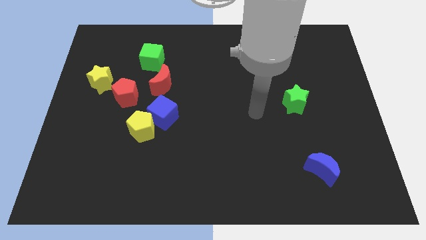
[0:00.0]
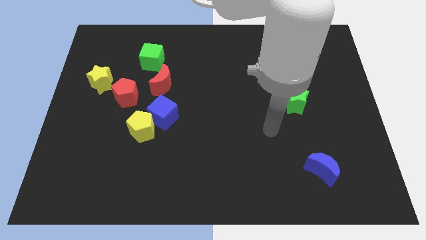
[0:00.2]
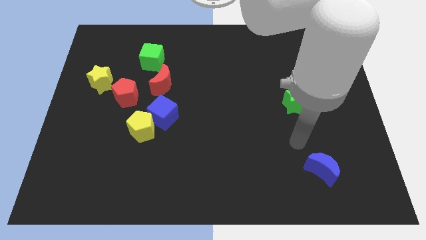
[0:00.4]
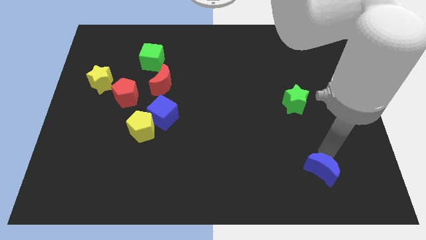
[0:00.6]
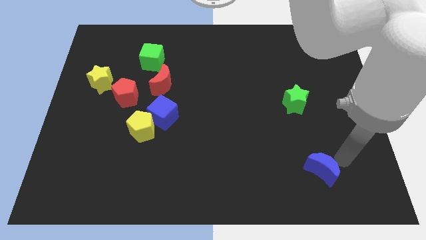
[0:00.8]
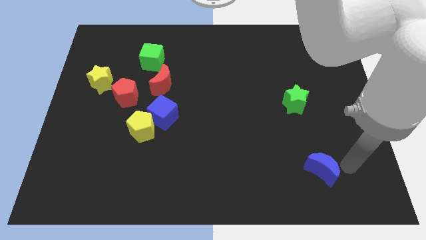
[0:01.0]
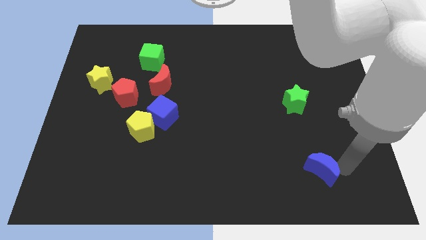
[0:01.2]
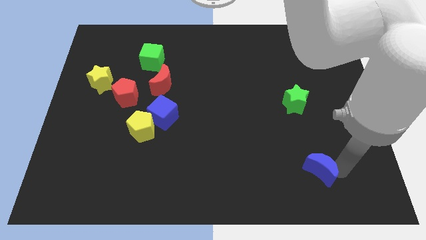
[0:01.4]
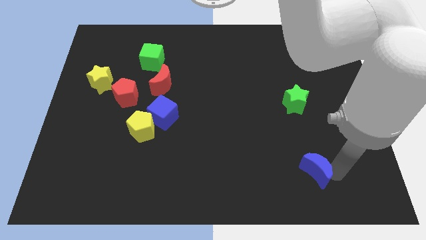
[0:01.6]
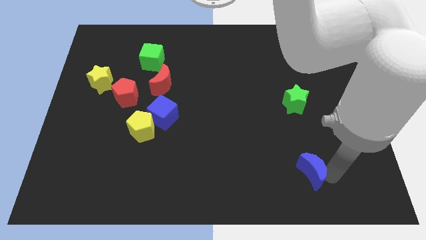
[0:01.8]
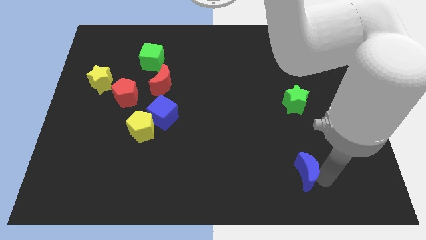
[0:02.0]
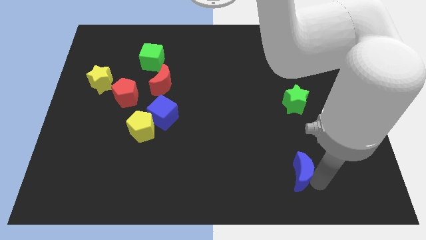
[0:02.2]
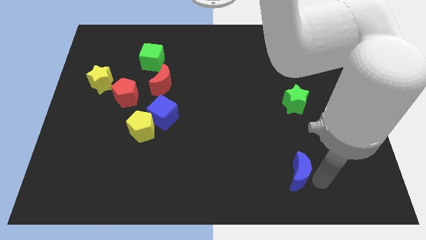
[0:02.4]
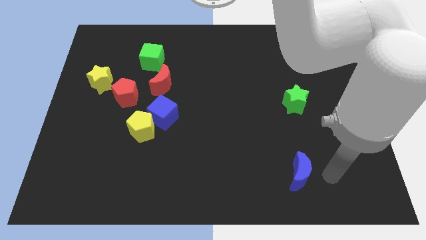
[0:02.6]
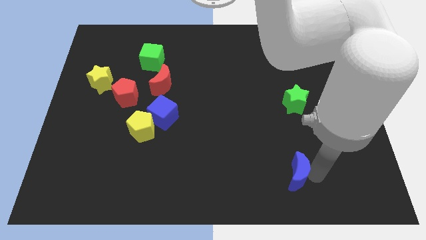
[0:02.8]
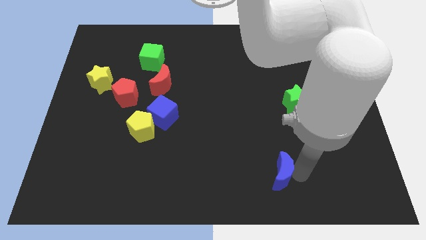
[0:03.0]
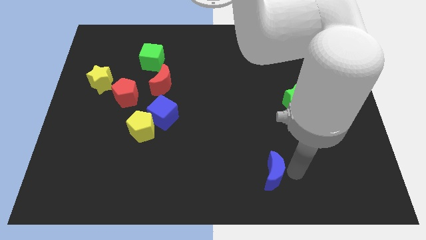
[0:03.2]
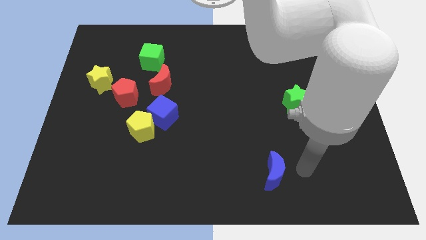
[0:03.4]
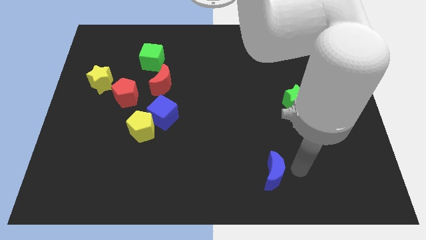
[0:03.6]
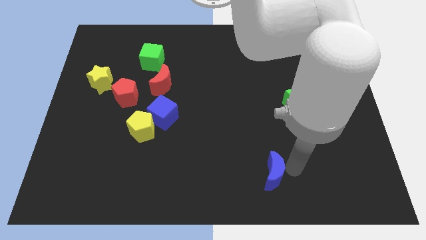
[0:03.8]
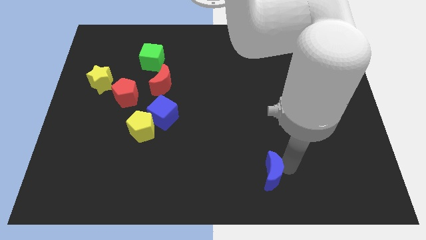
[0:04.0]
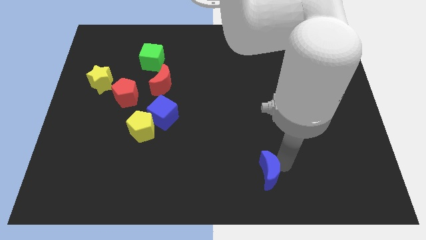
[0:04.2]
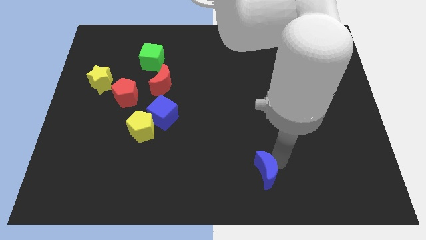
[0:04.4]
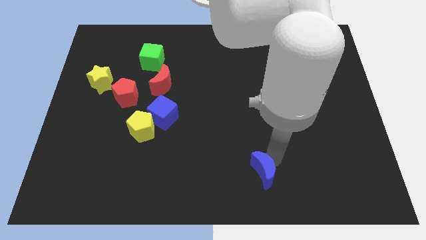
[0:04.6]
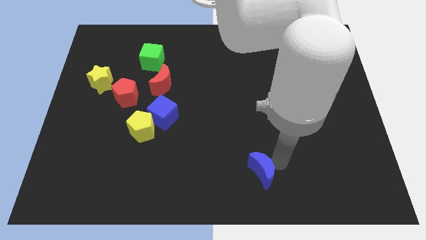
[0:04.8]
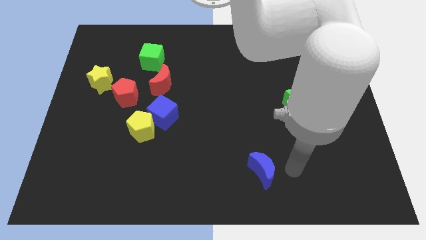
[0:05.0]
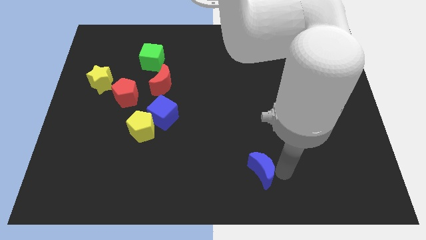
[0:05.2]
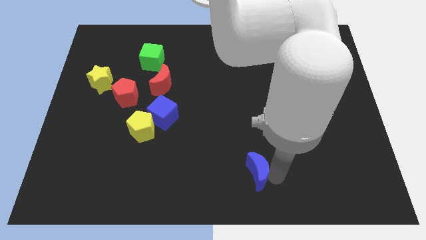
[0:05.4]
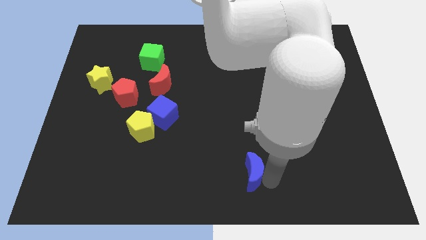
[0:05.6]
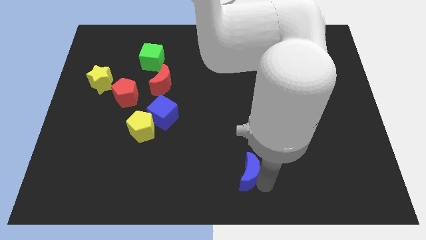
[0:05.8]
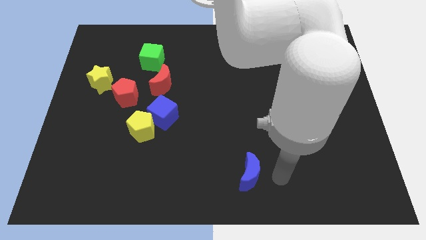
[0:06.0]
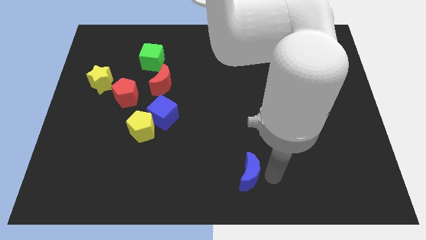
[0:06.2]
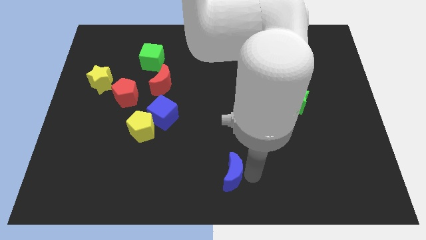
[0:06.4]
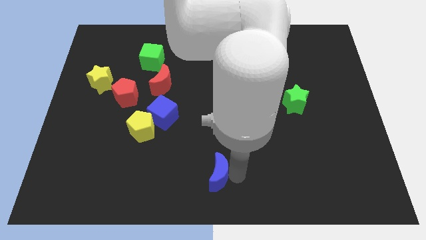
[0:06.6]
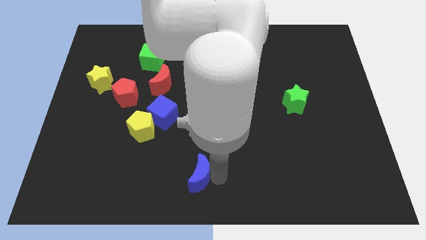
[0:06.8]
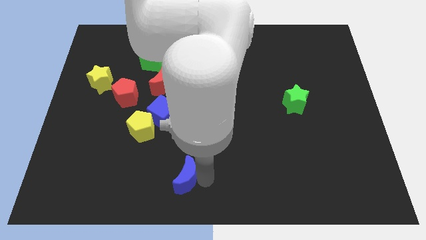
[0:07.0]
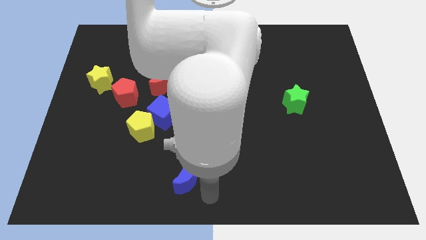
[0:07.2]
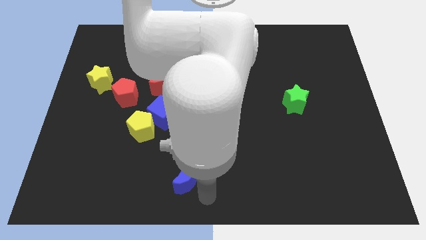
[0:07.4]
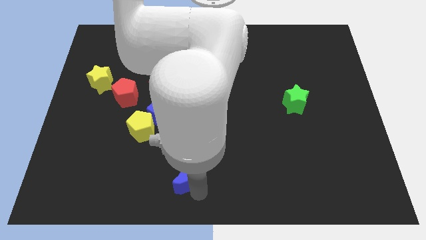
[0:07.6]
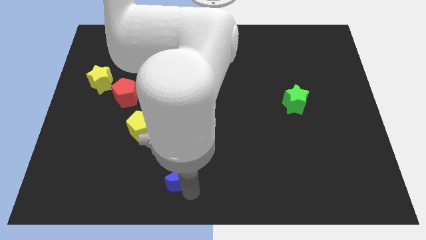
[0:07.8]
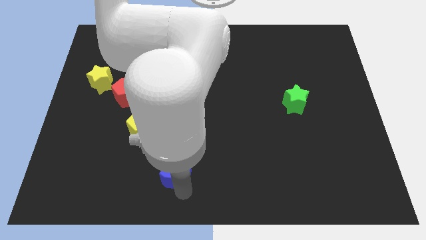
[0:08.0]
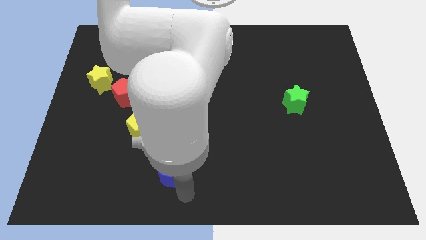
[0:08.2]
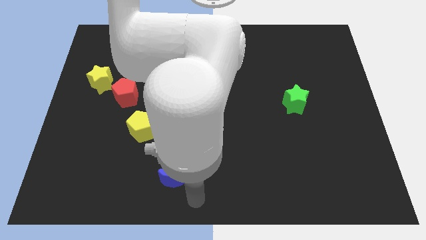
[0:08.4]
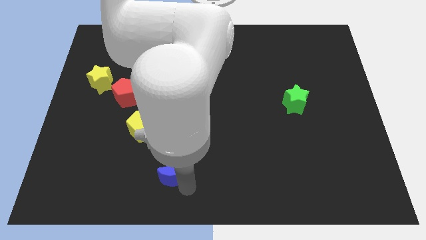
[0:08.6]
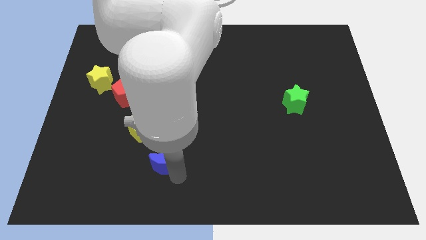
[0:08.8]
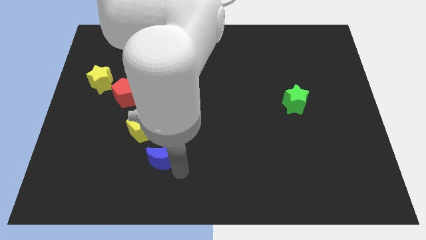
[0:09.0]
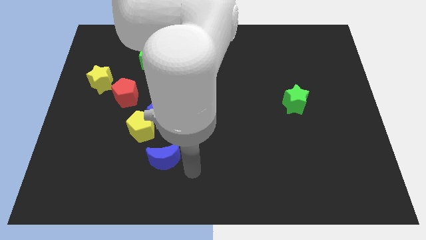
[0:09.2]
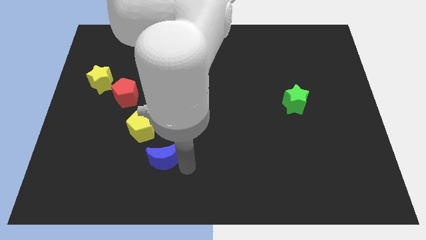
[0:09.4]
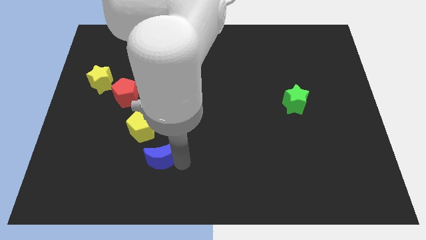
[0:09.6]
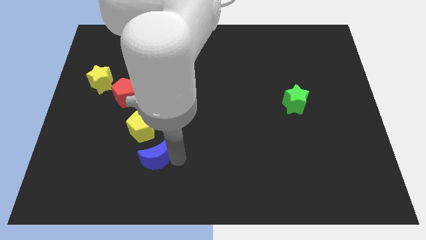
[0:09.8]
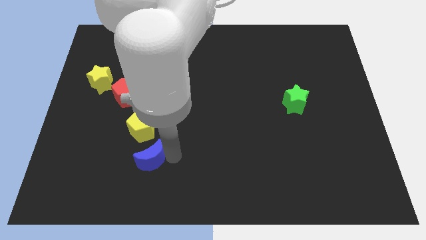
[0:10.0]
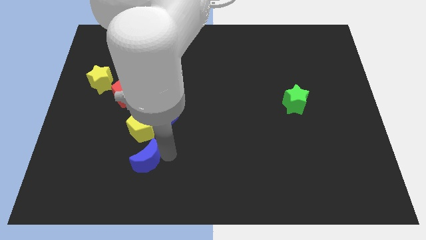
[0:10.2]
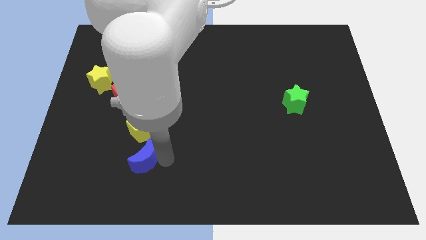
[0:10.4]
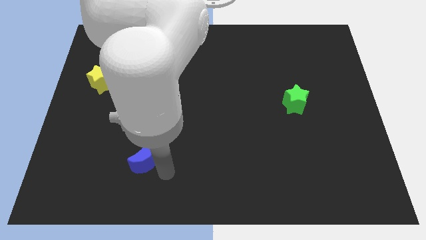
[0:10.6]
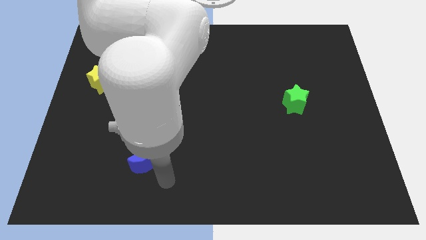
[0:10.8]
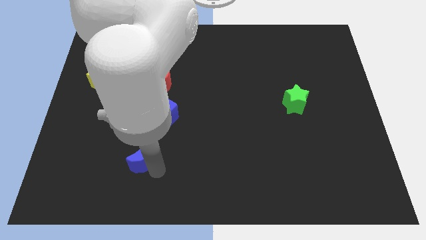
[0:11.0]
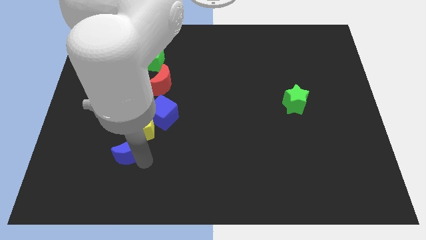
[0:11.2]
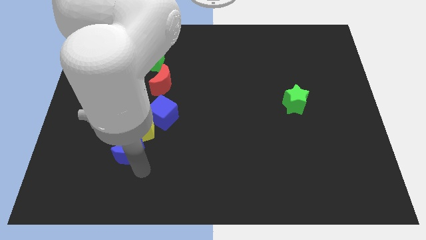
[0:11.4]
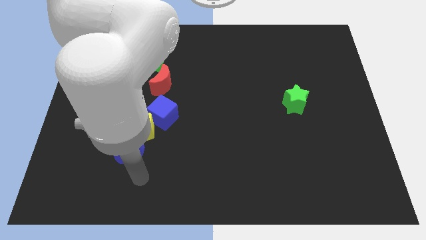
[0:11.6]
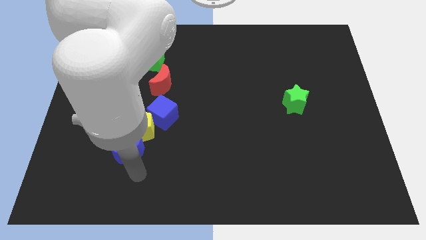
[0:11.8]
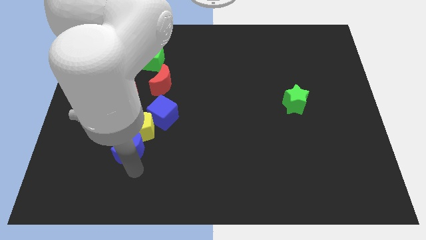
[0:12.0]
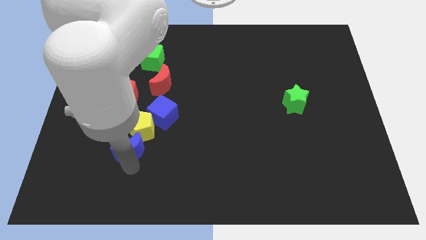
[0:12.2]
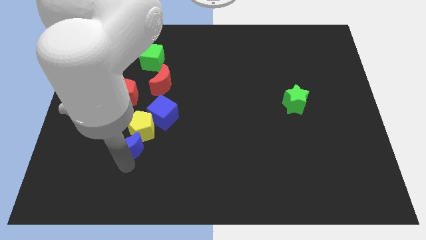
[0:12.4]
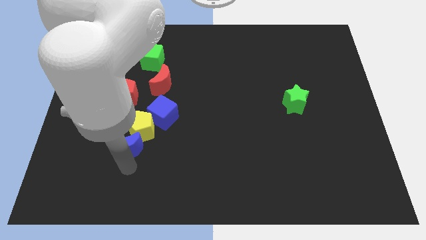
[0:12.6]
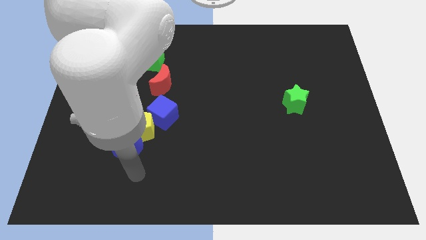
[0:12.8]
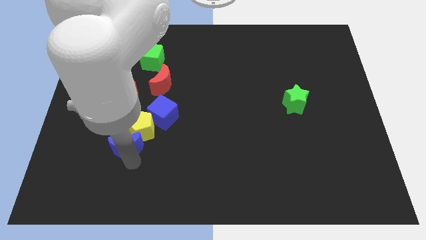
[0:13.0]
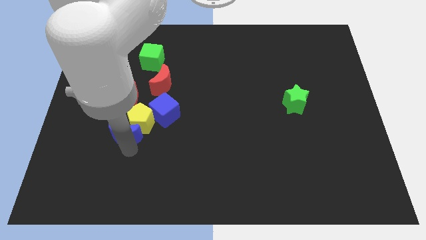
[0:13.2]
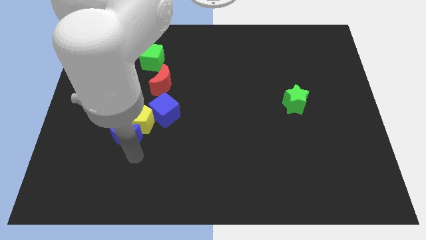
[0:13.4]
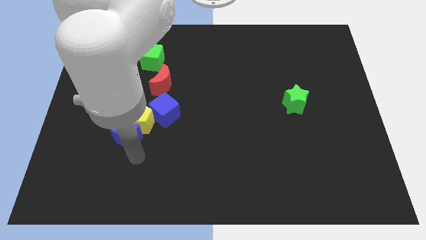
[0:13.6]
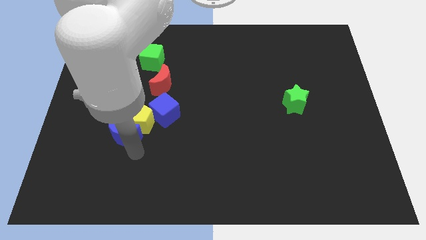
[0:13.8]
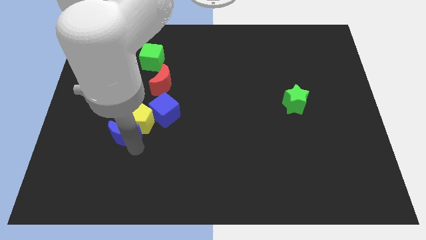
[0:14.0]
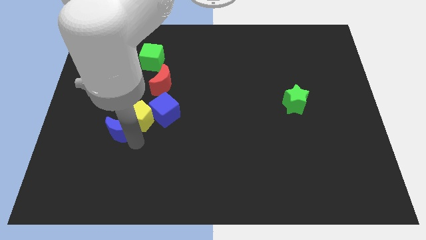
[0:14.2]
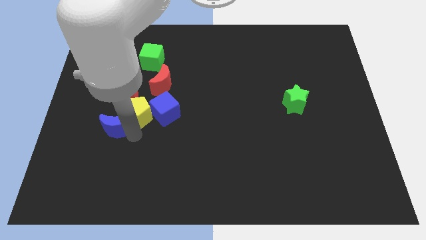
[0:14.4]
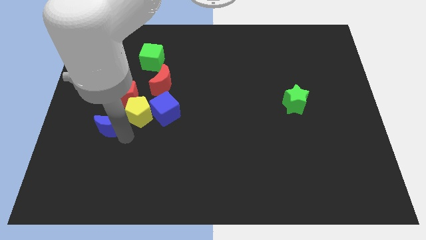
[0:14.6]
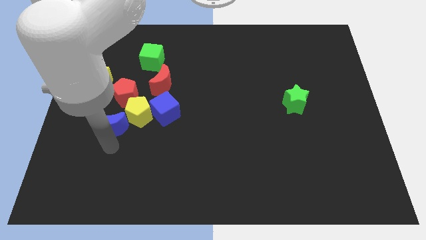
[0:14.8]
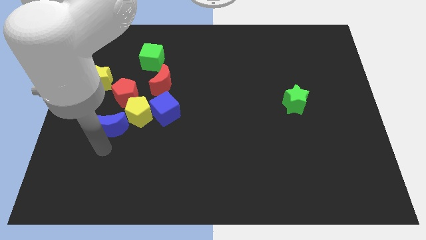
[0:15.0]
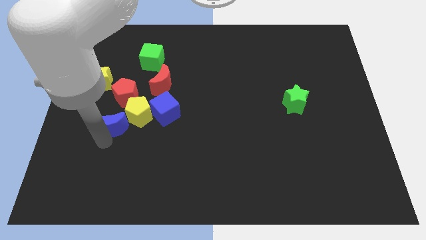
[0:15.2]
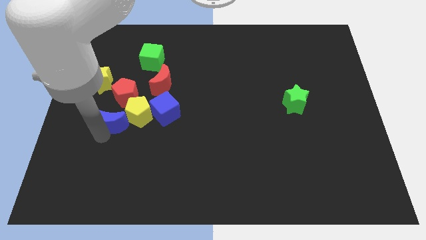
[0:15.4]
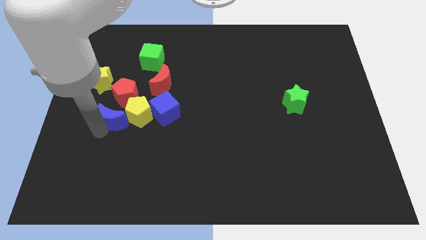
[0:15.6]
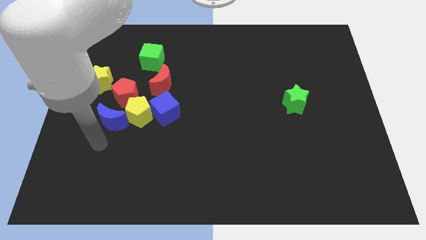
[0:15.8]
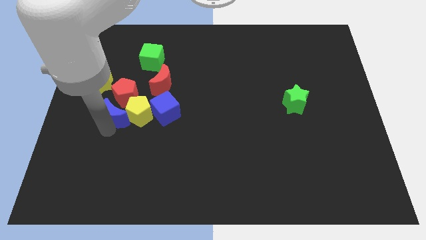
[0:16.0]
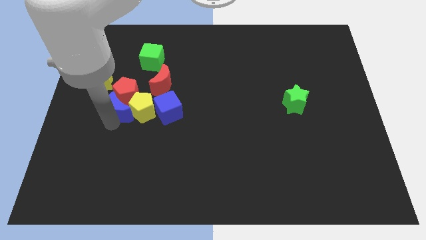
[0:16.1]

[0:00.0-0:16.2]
move the blue moon close to the red pentagon
